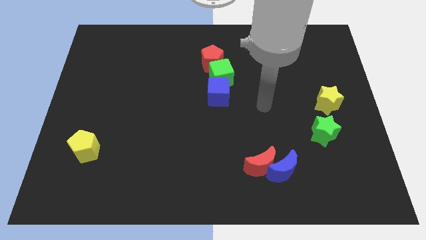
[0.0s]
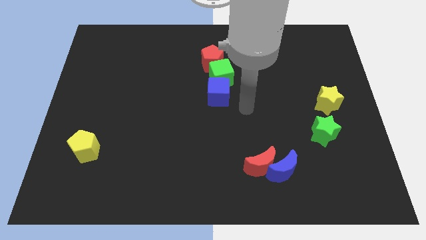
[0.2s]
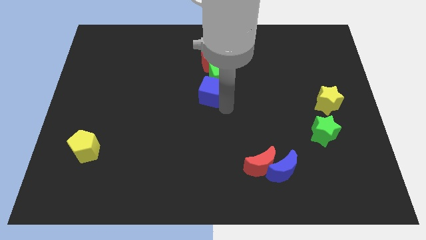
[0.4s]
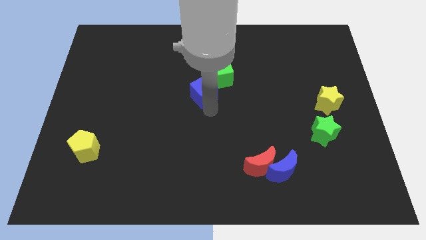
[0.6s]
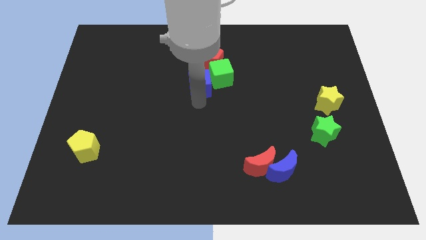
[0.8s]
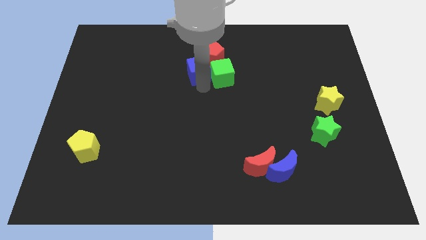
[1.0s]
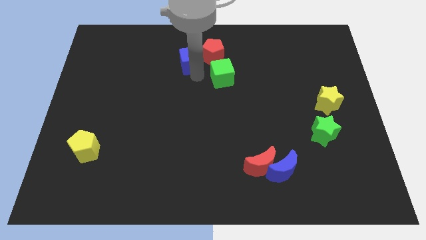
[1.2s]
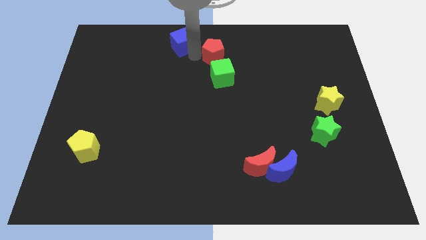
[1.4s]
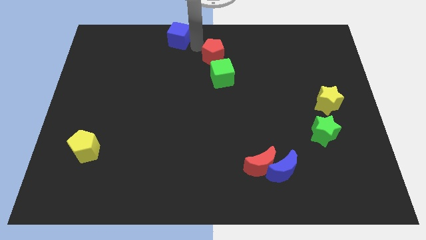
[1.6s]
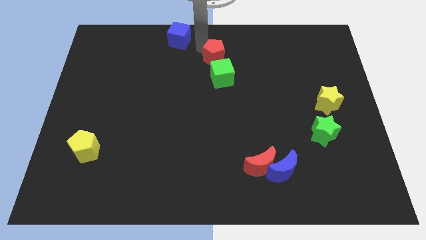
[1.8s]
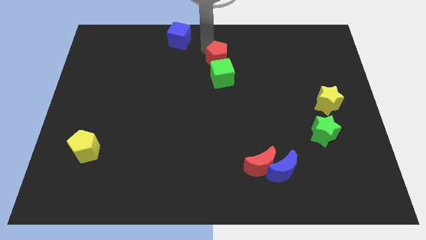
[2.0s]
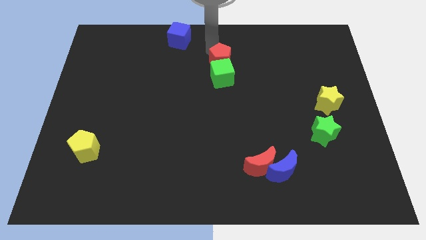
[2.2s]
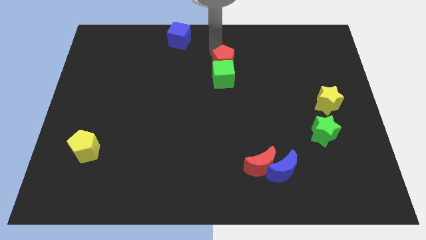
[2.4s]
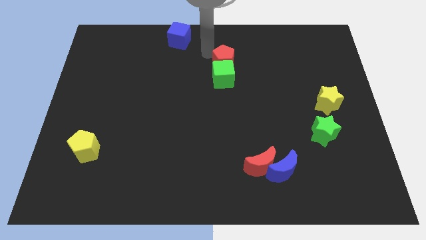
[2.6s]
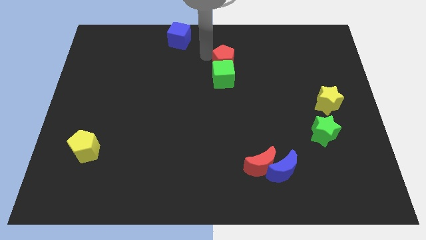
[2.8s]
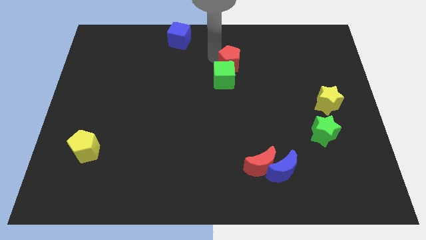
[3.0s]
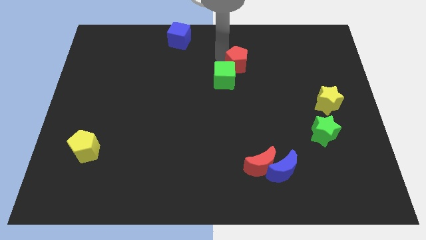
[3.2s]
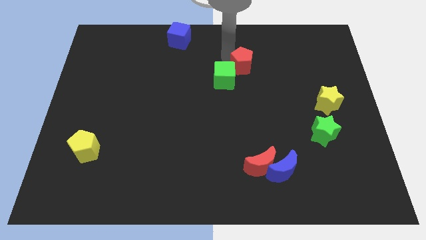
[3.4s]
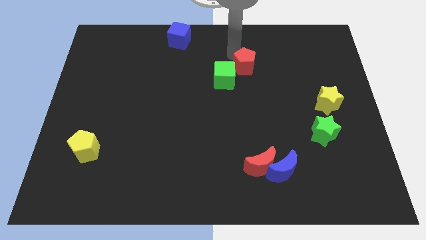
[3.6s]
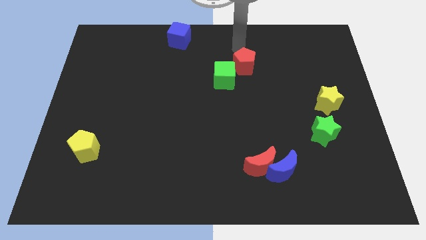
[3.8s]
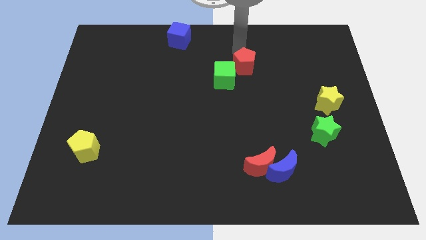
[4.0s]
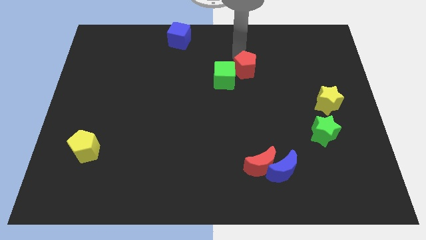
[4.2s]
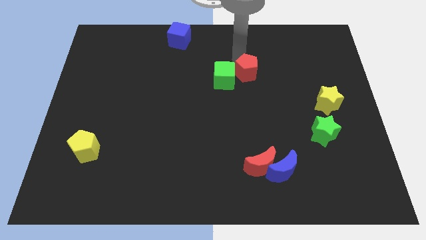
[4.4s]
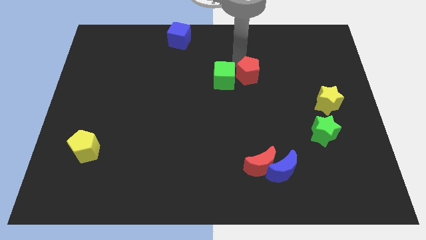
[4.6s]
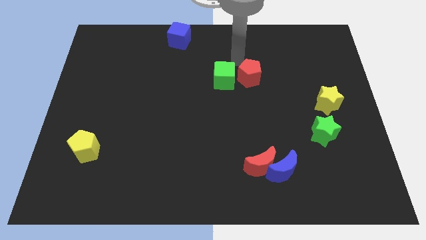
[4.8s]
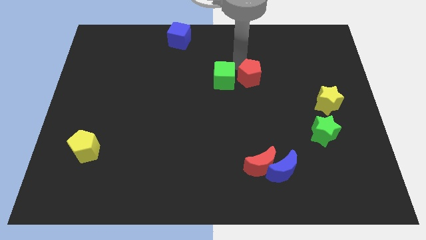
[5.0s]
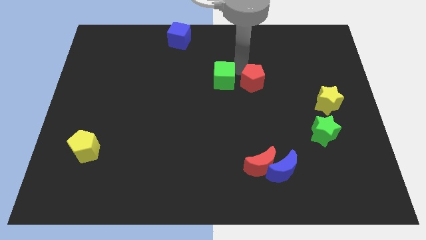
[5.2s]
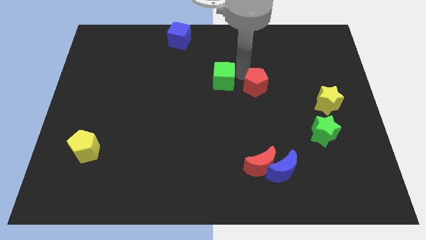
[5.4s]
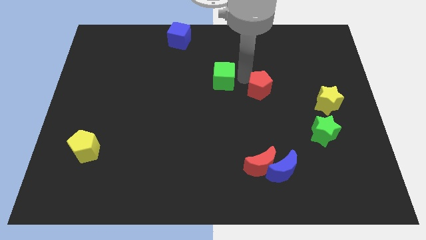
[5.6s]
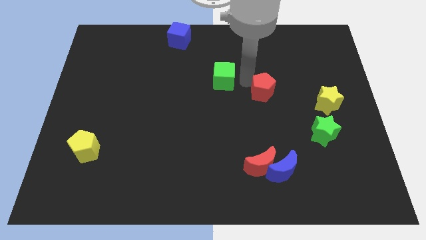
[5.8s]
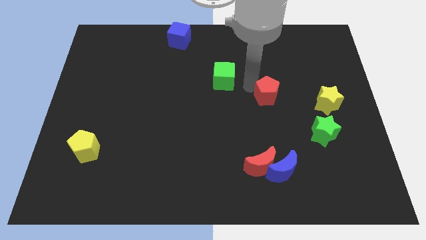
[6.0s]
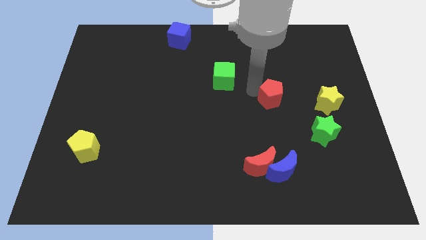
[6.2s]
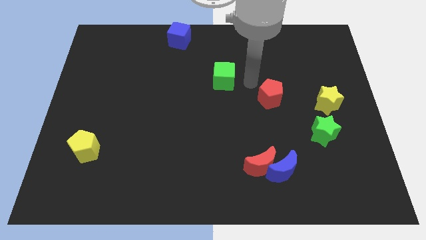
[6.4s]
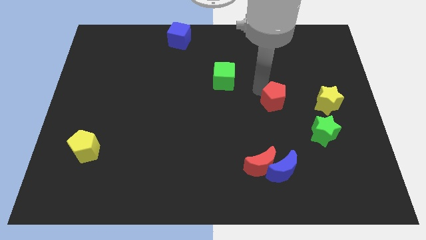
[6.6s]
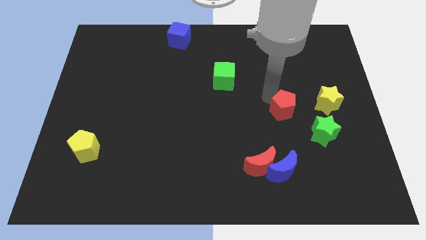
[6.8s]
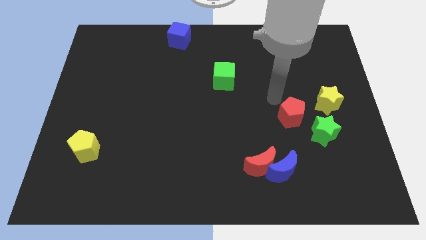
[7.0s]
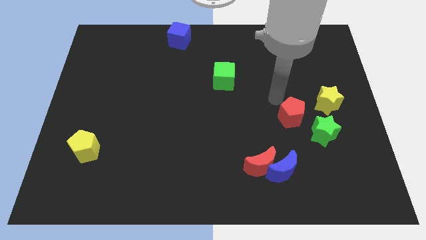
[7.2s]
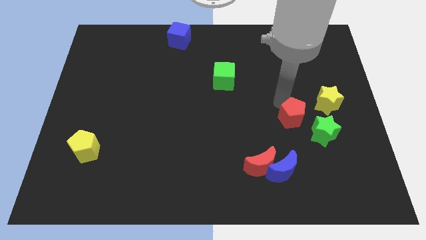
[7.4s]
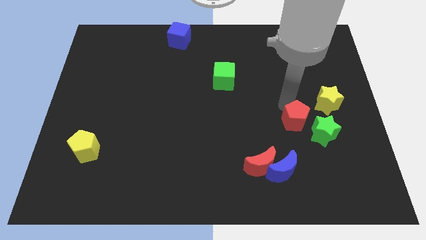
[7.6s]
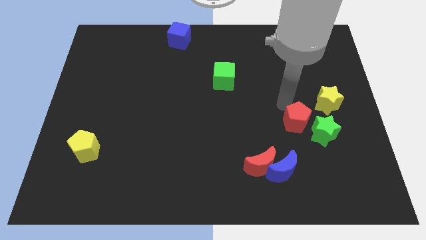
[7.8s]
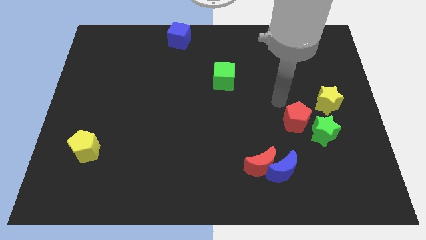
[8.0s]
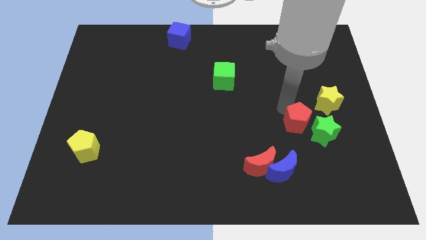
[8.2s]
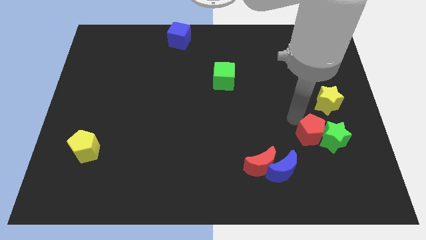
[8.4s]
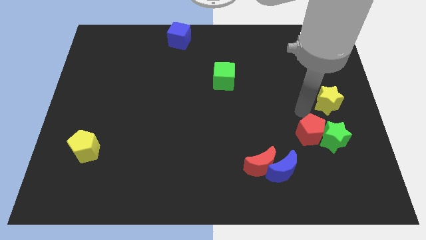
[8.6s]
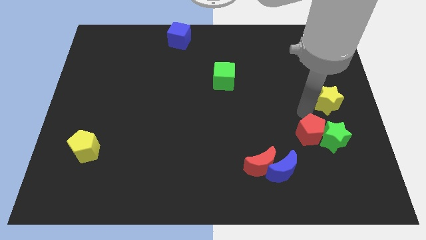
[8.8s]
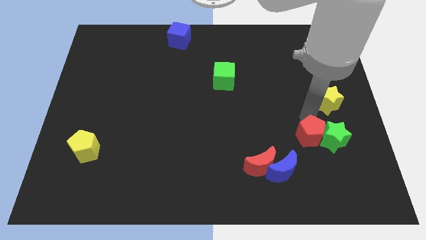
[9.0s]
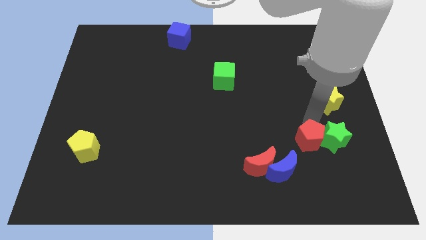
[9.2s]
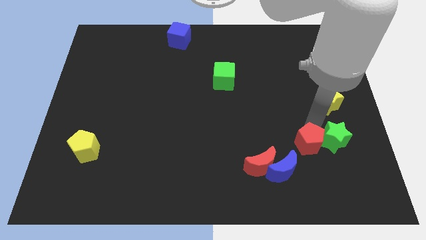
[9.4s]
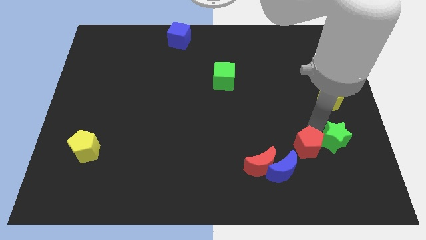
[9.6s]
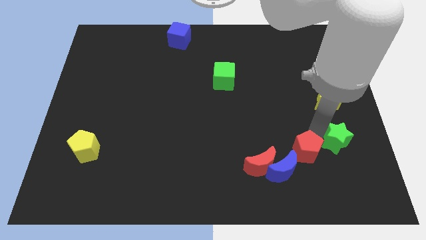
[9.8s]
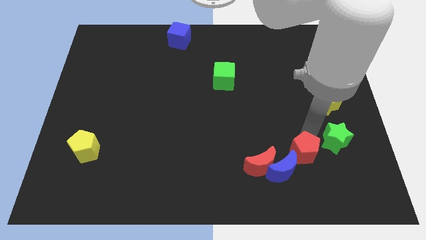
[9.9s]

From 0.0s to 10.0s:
push the red pentagon to the right of the blue moon

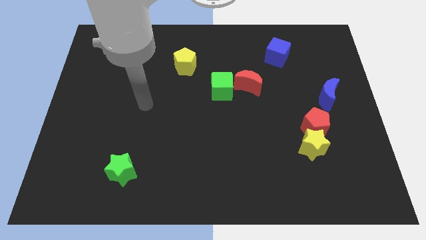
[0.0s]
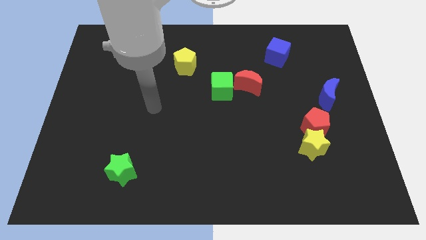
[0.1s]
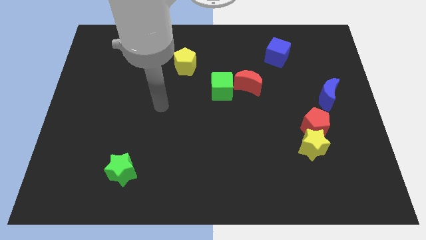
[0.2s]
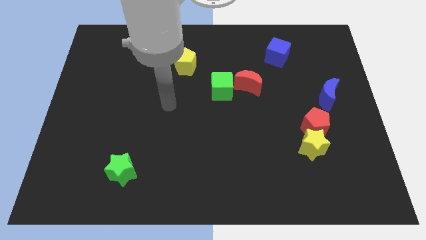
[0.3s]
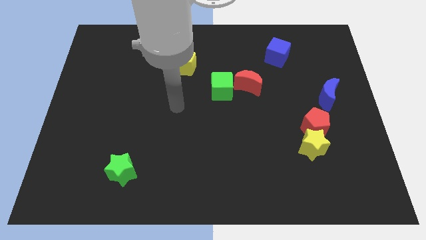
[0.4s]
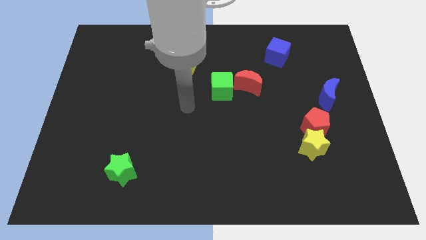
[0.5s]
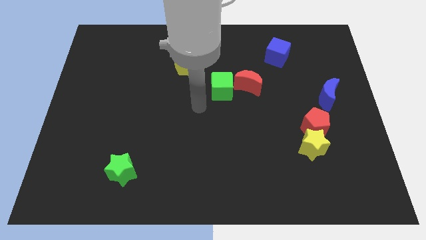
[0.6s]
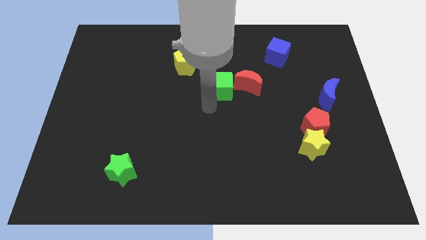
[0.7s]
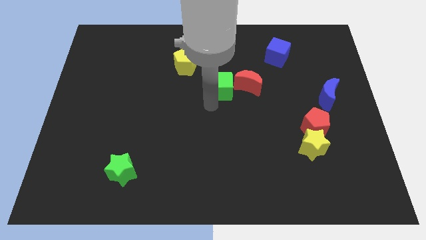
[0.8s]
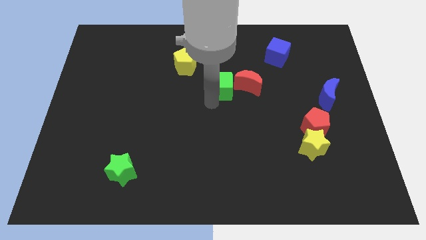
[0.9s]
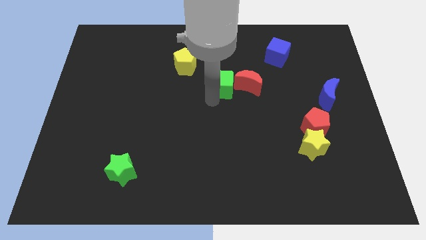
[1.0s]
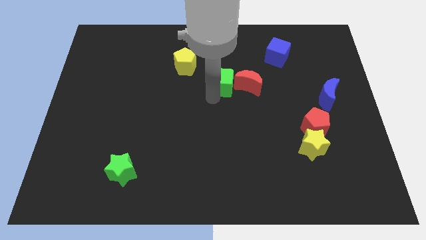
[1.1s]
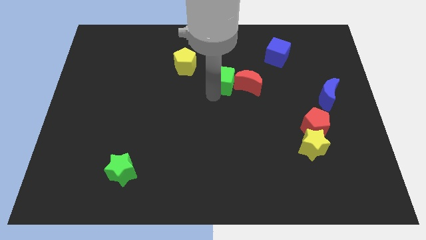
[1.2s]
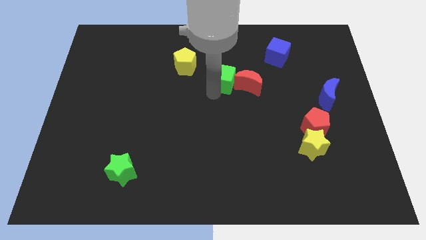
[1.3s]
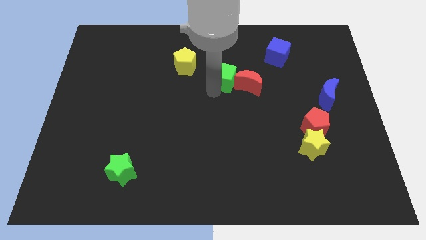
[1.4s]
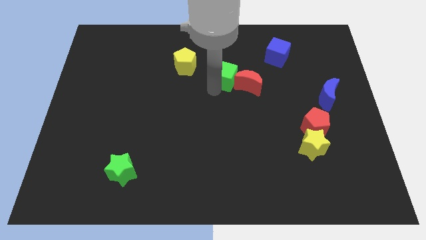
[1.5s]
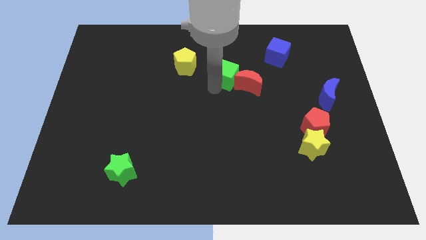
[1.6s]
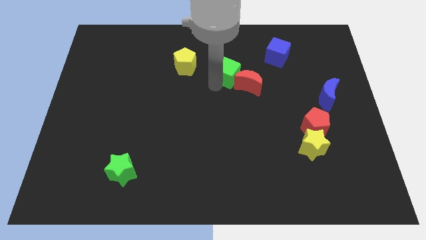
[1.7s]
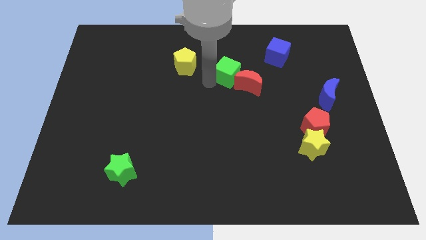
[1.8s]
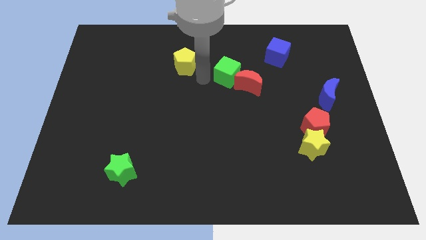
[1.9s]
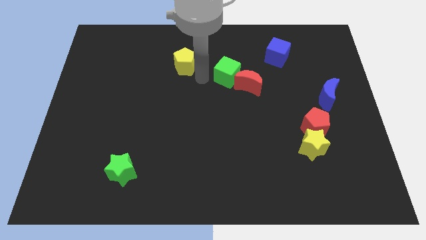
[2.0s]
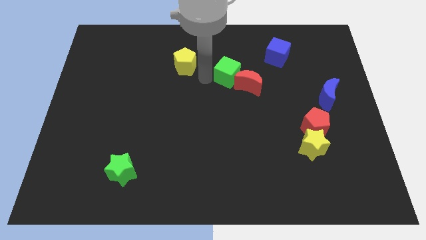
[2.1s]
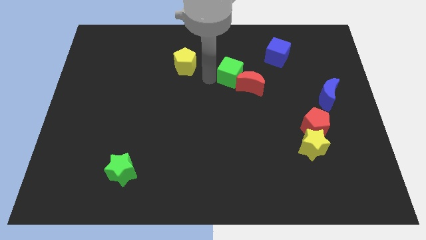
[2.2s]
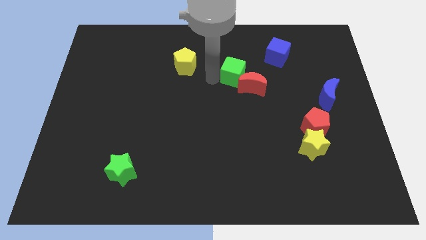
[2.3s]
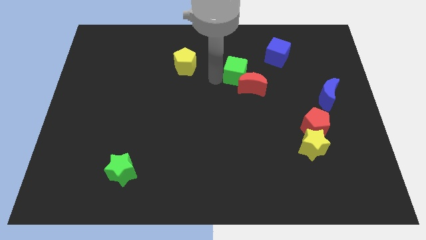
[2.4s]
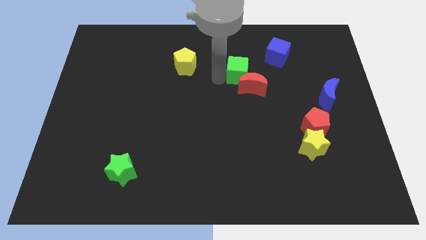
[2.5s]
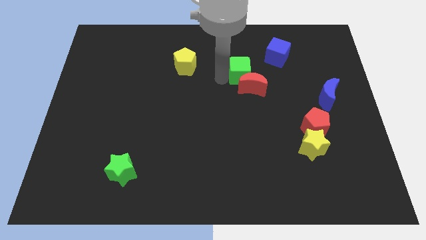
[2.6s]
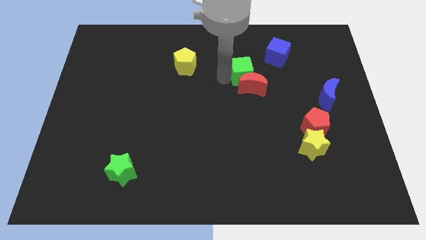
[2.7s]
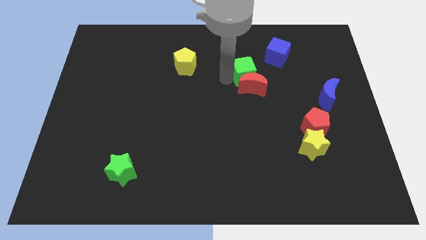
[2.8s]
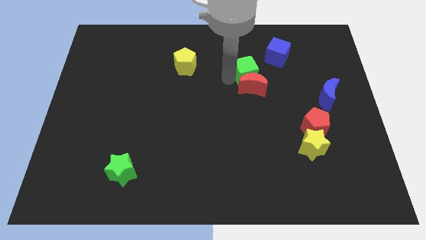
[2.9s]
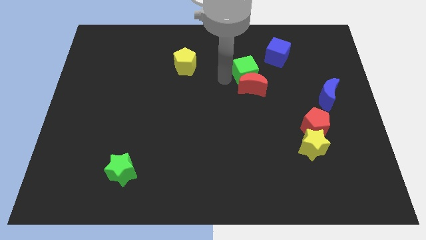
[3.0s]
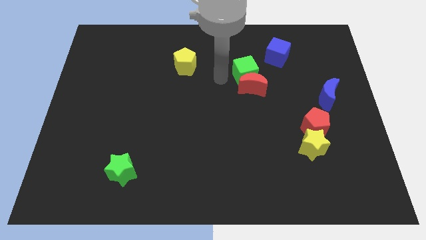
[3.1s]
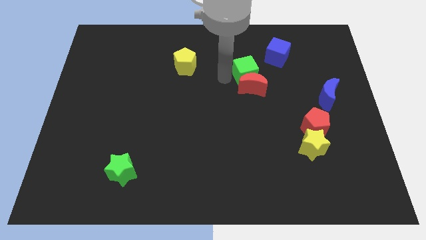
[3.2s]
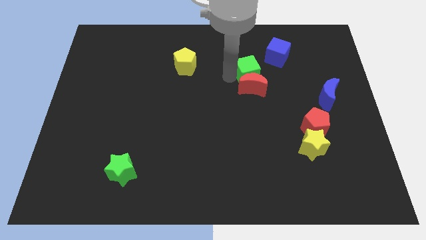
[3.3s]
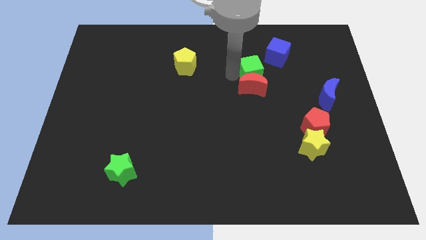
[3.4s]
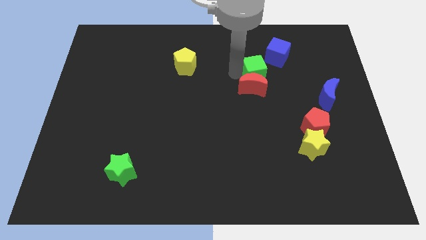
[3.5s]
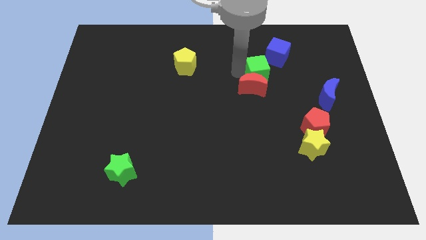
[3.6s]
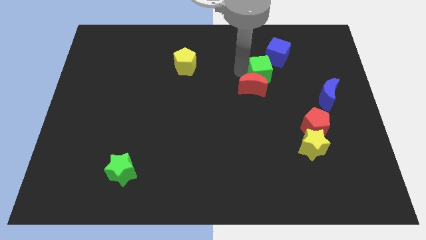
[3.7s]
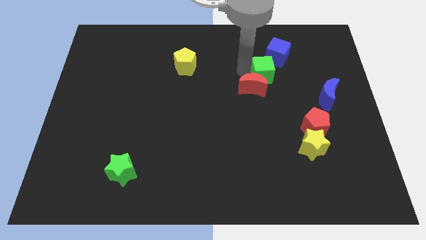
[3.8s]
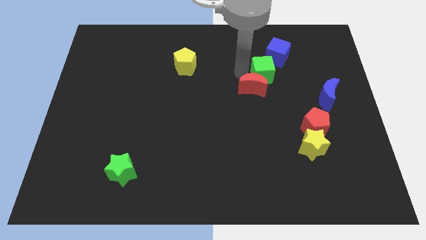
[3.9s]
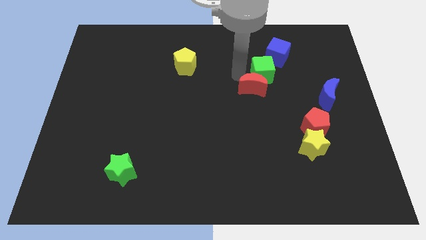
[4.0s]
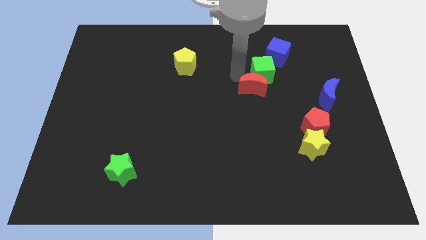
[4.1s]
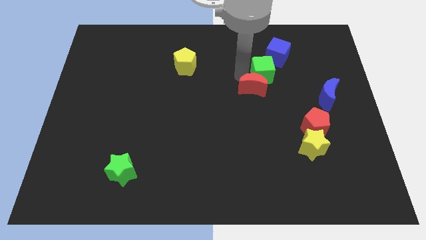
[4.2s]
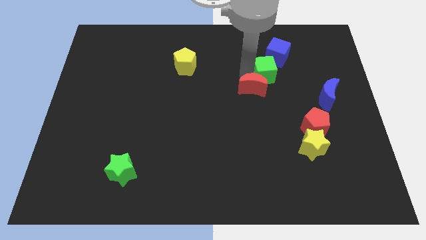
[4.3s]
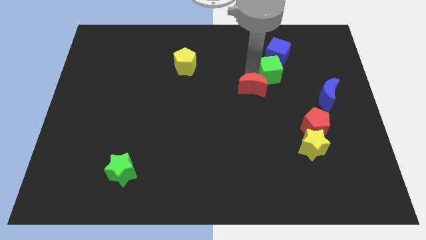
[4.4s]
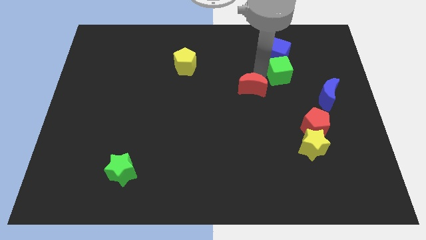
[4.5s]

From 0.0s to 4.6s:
slide the green cube diagonally down and to the right of the blue cube
